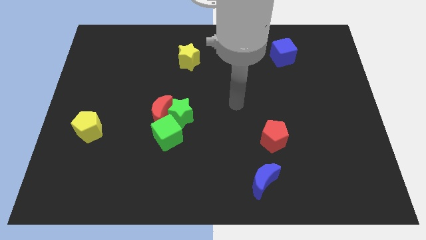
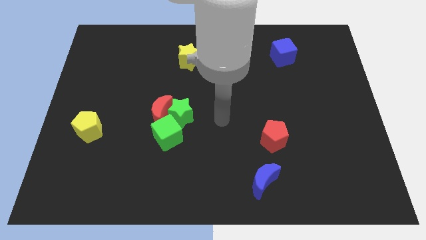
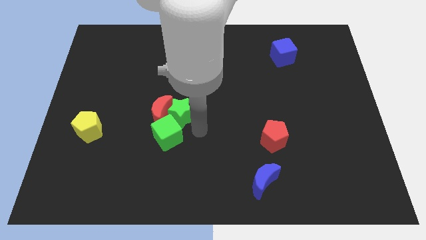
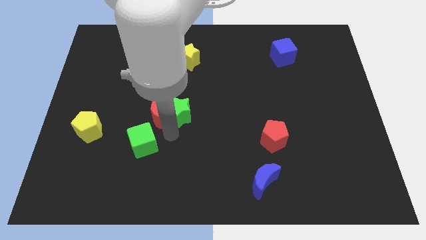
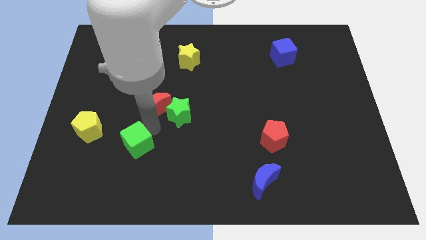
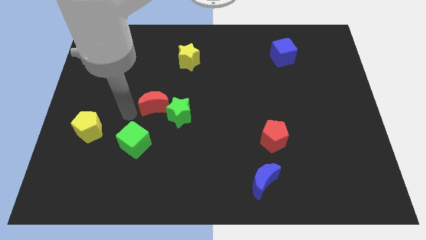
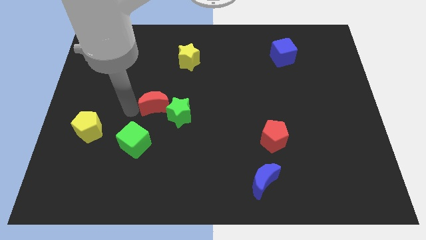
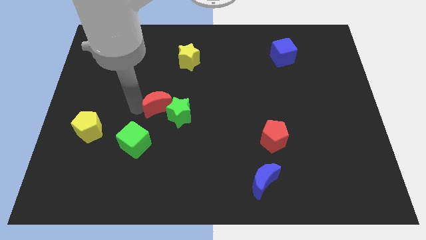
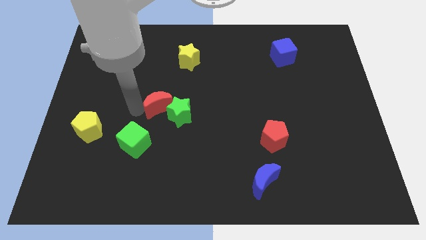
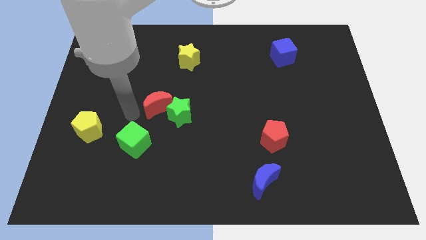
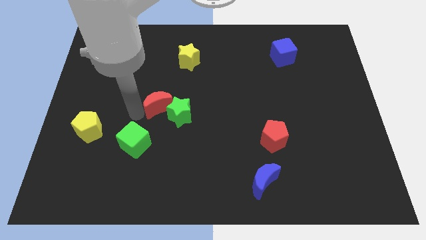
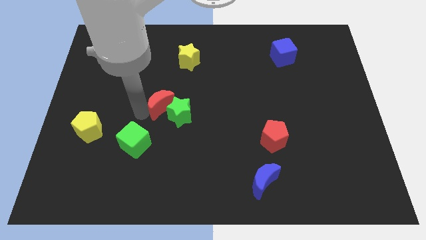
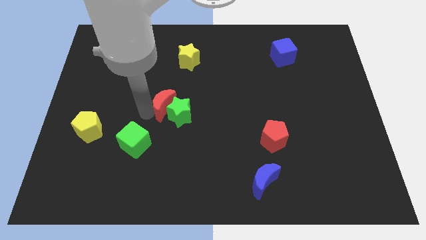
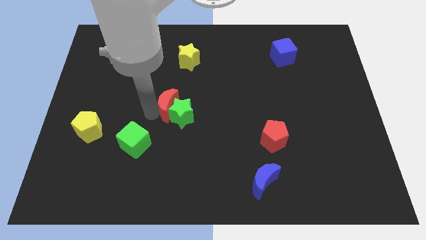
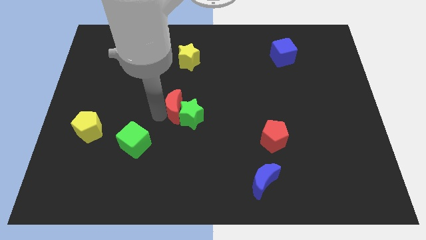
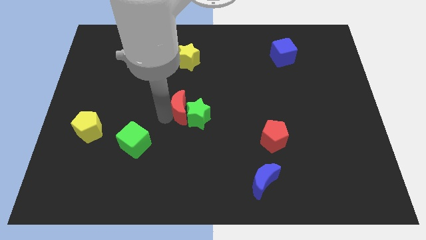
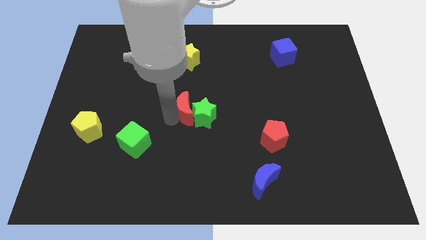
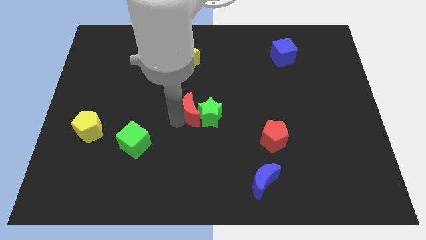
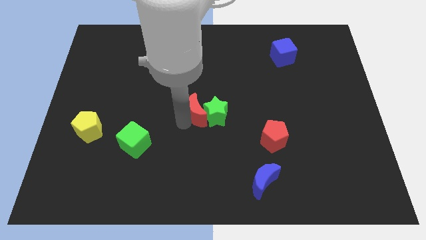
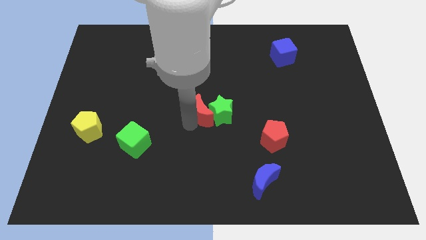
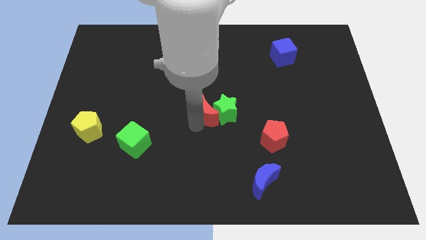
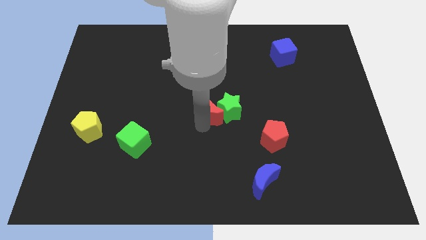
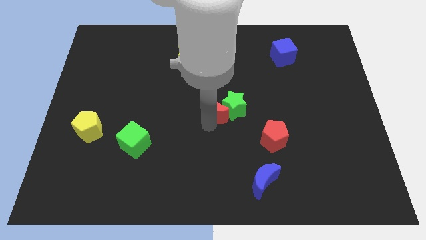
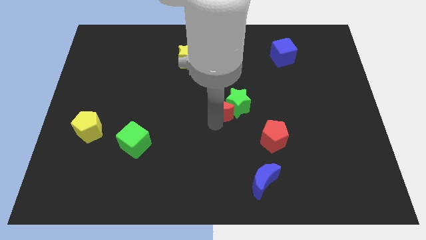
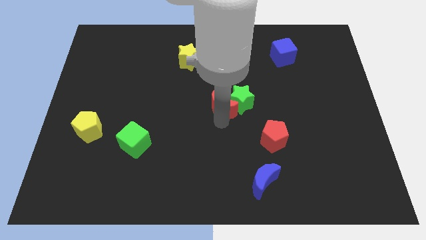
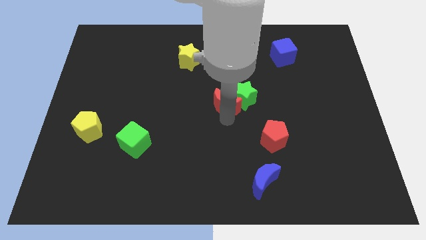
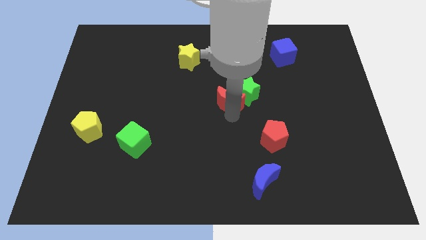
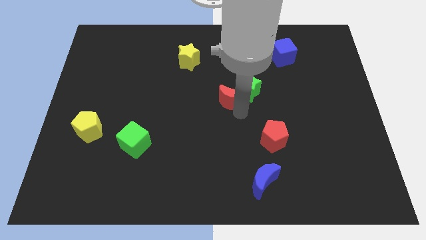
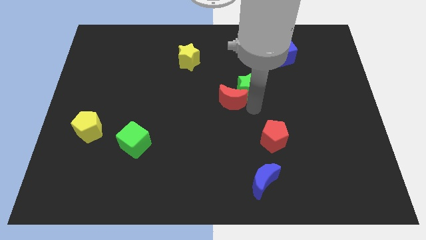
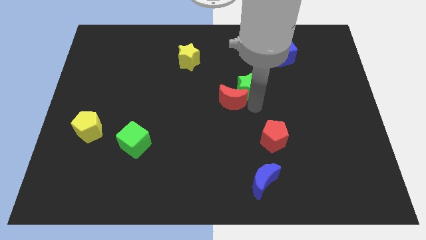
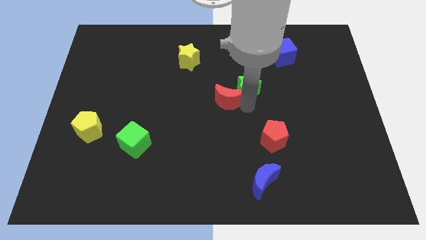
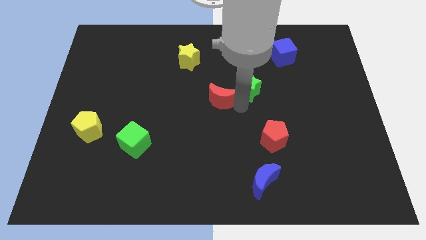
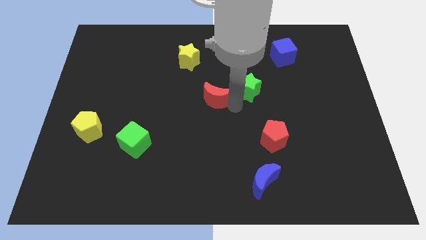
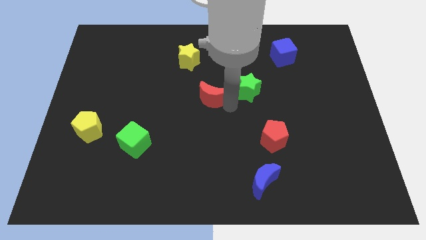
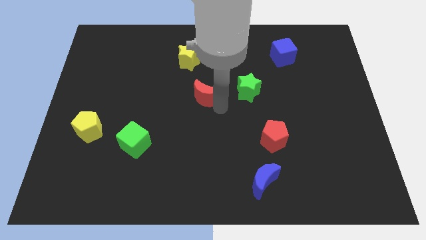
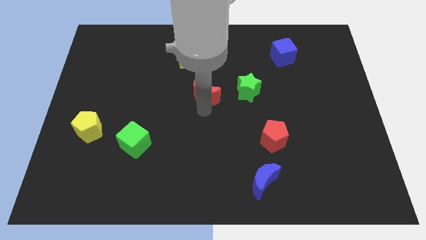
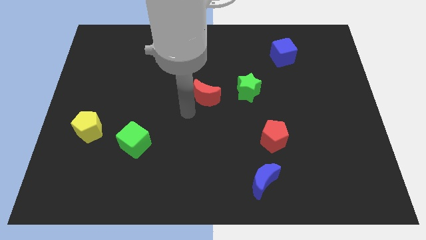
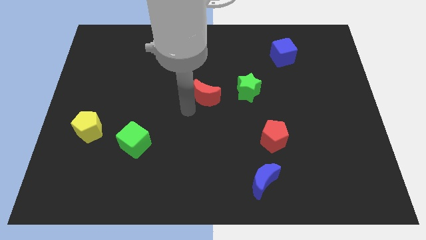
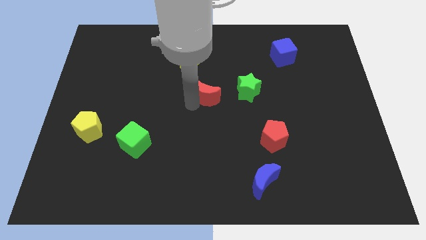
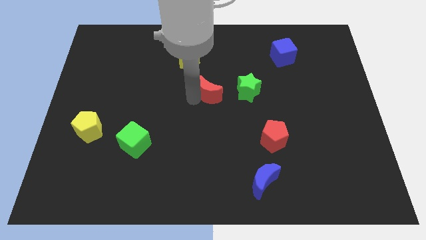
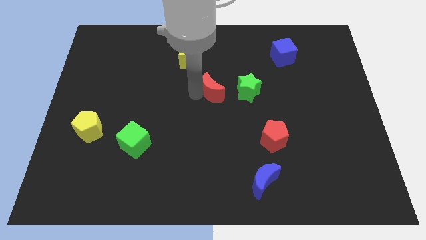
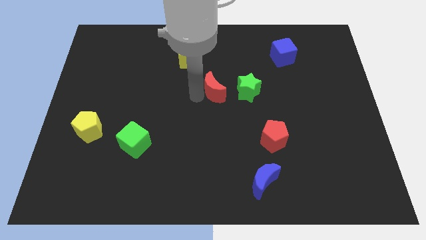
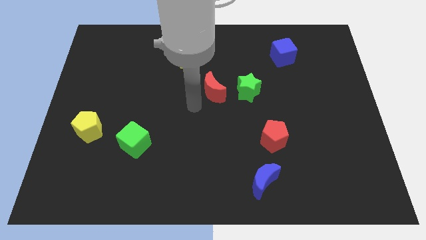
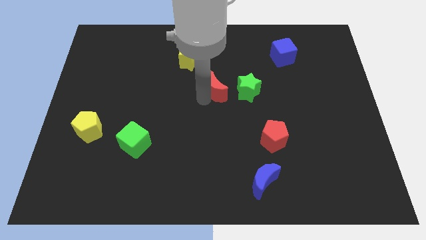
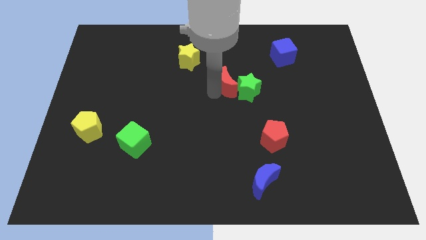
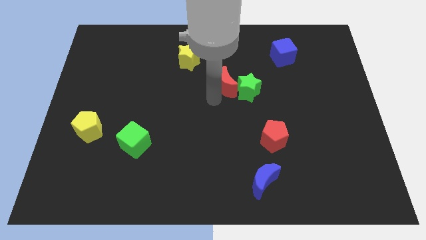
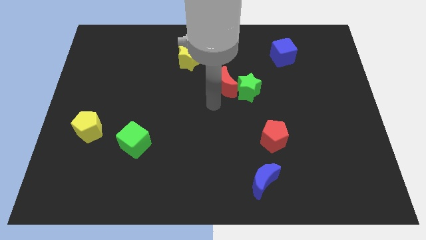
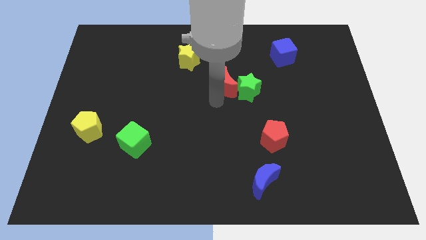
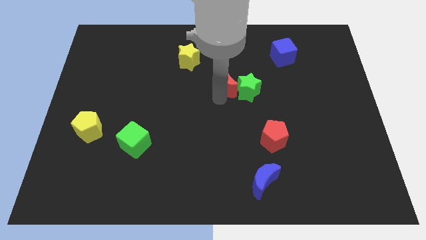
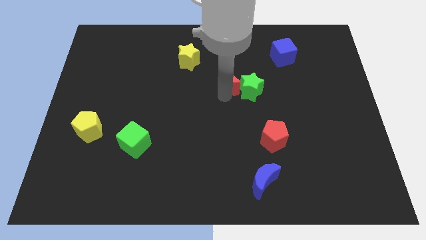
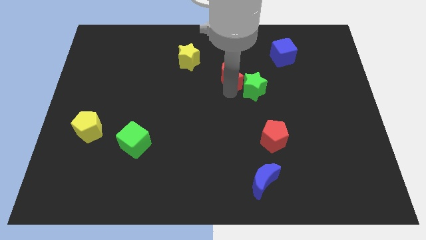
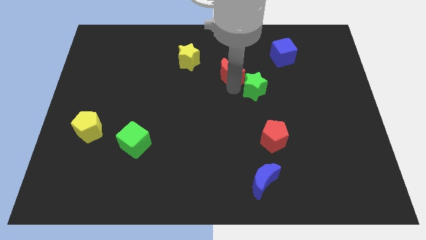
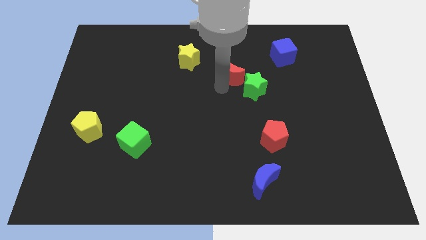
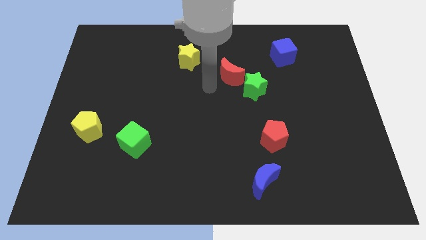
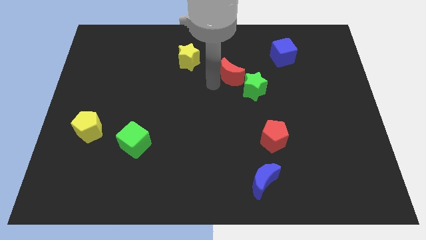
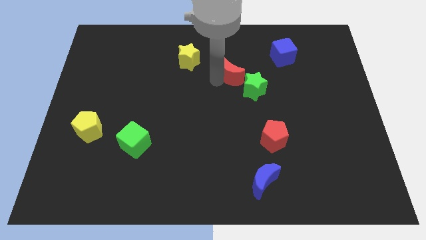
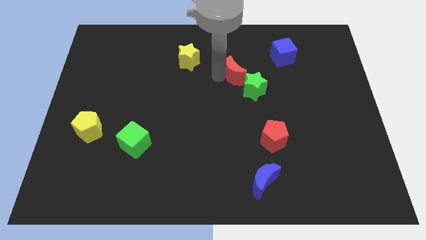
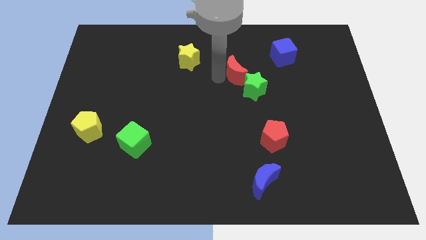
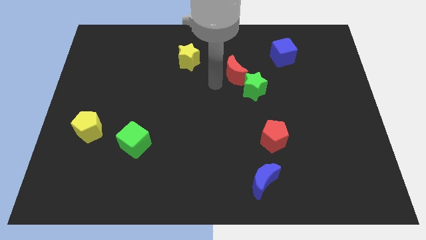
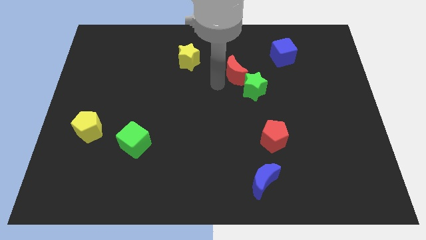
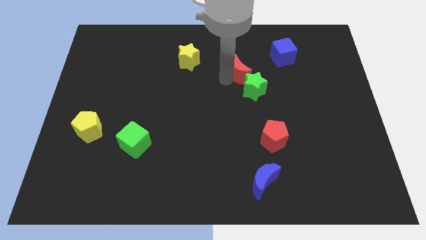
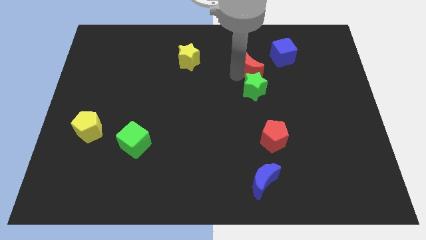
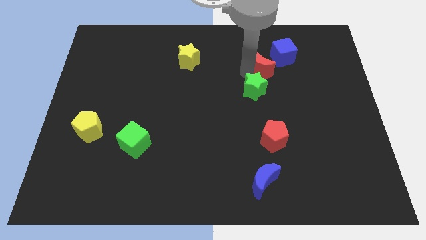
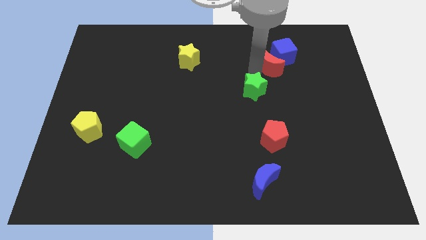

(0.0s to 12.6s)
push the red moon towards the blue cube
